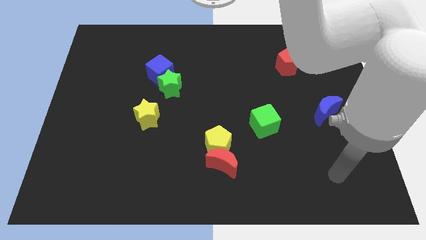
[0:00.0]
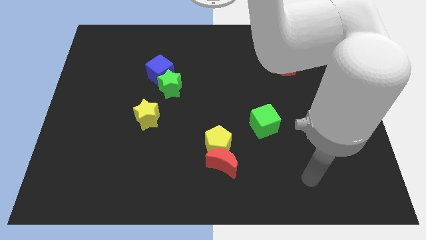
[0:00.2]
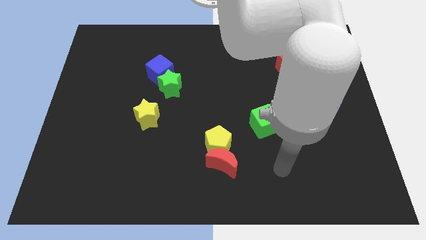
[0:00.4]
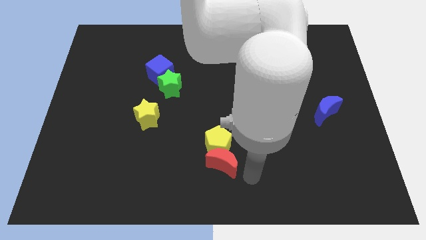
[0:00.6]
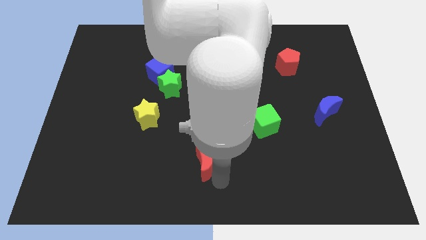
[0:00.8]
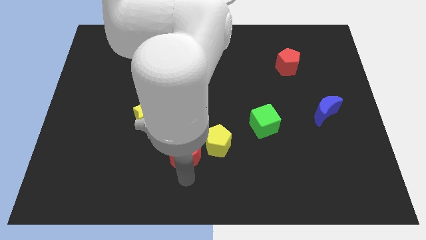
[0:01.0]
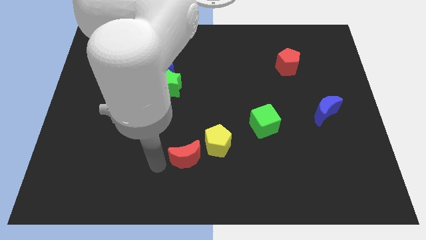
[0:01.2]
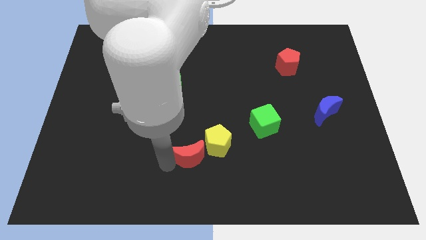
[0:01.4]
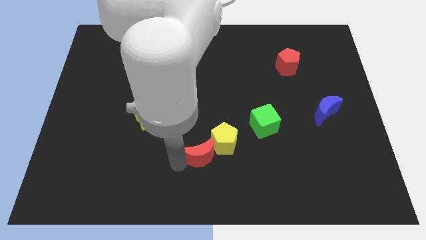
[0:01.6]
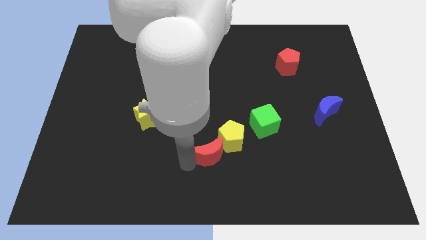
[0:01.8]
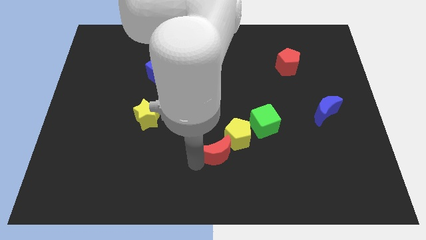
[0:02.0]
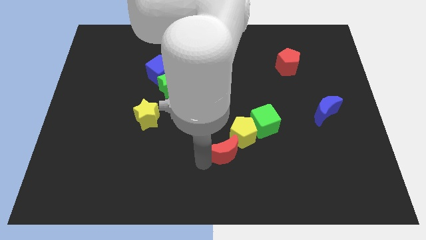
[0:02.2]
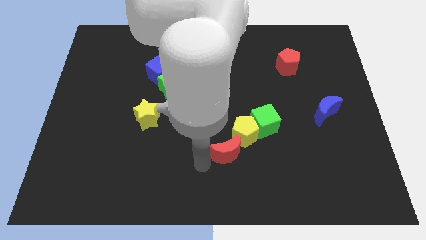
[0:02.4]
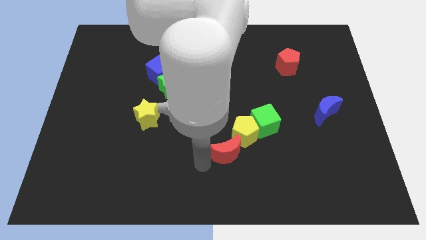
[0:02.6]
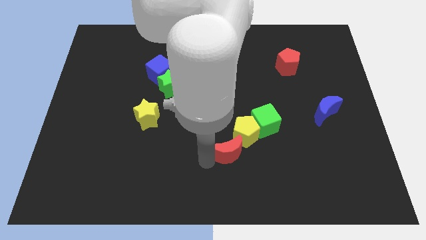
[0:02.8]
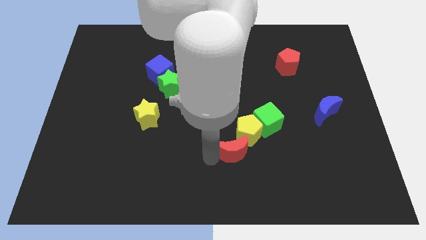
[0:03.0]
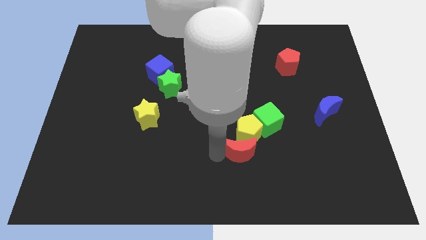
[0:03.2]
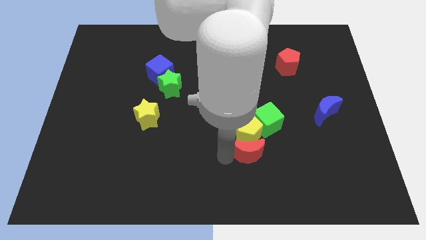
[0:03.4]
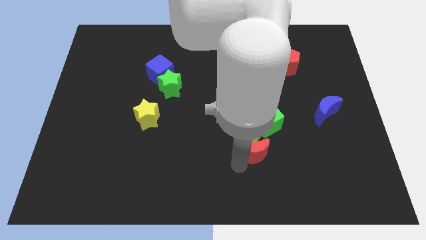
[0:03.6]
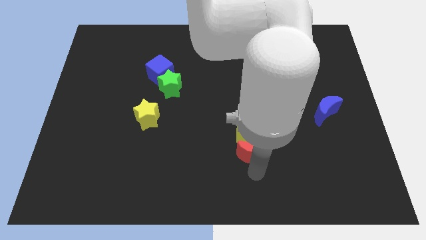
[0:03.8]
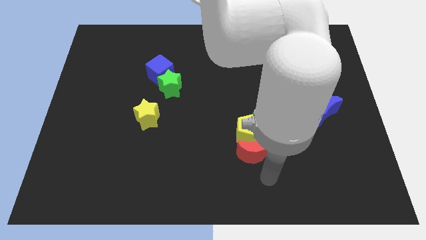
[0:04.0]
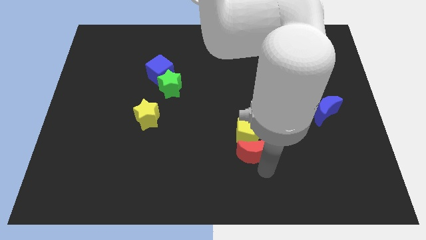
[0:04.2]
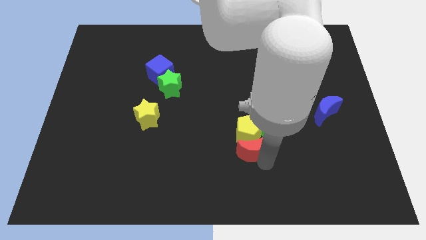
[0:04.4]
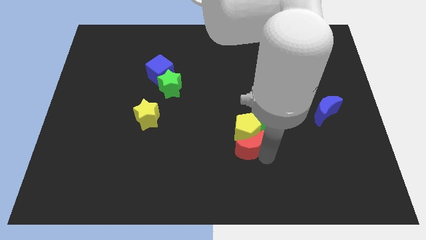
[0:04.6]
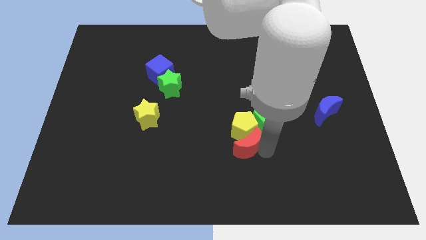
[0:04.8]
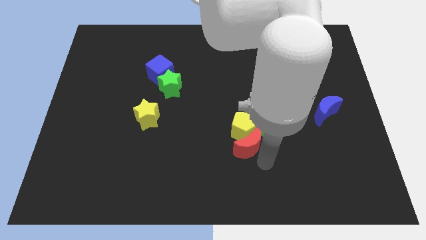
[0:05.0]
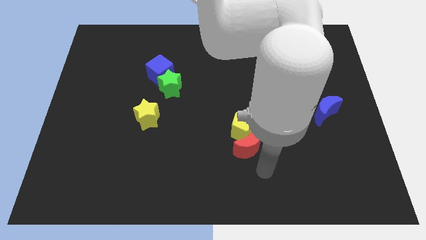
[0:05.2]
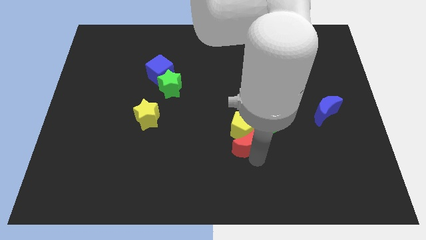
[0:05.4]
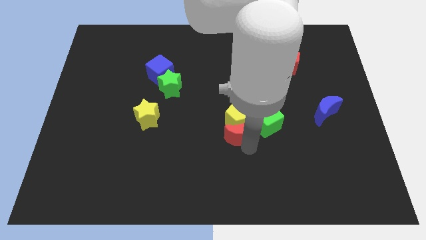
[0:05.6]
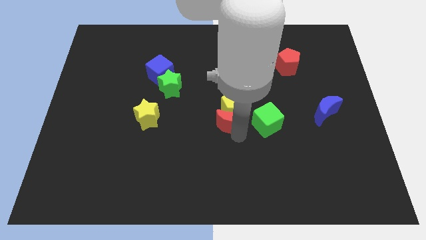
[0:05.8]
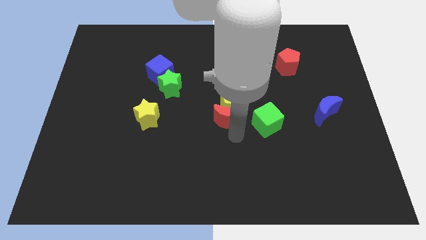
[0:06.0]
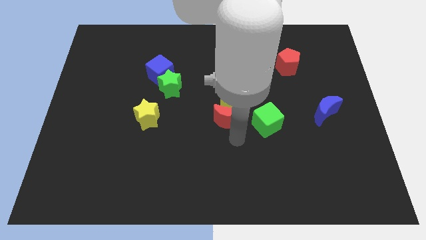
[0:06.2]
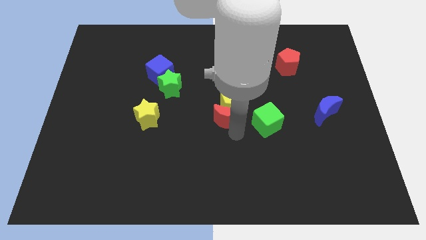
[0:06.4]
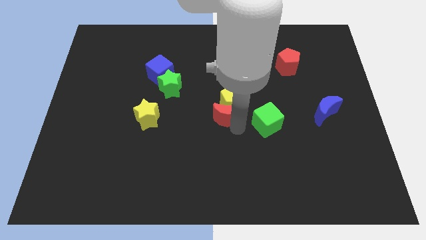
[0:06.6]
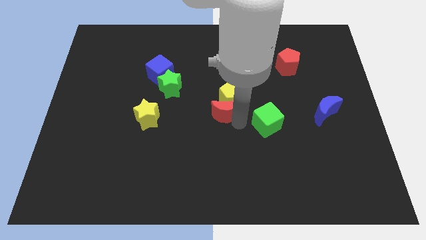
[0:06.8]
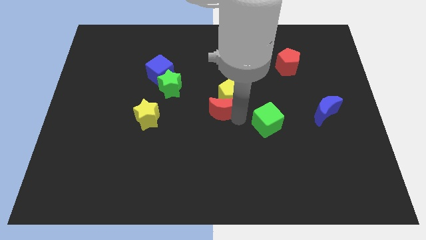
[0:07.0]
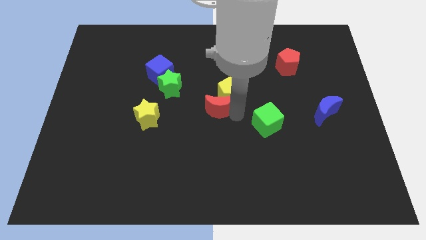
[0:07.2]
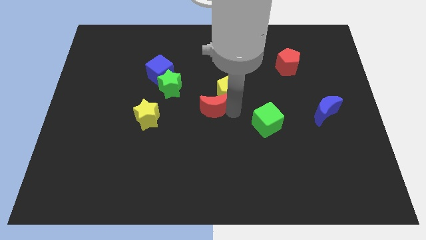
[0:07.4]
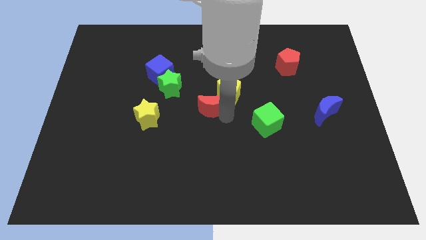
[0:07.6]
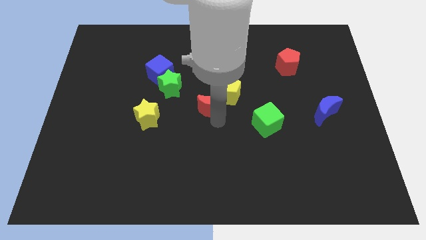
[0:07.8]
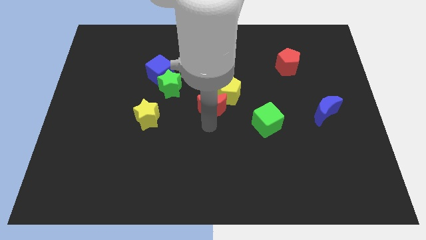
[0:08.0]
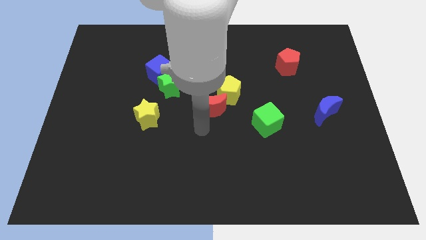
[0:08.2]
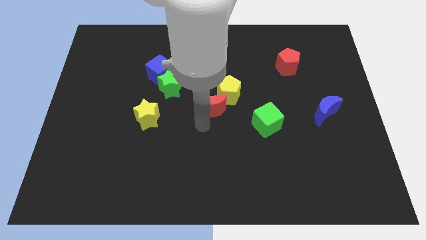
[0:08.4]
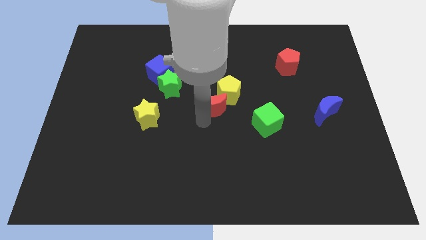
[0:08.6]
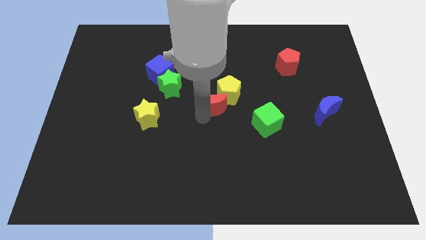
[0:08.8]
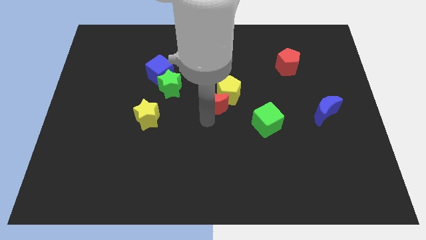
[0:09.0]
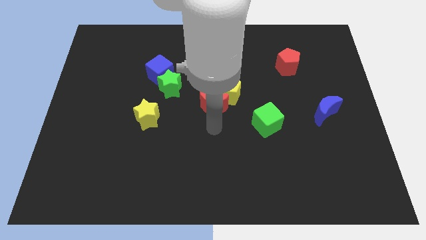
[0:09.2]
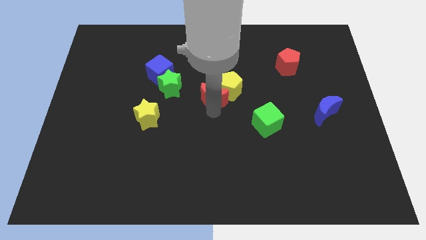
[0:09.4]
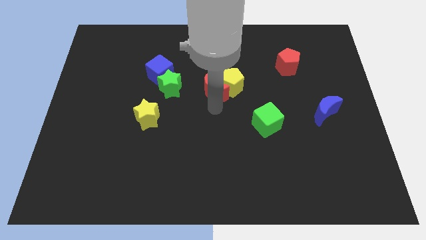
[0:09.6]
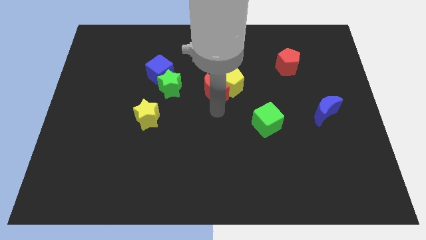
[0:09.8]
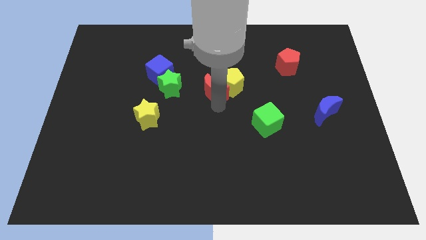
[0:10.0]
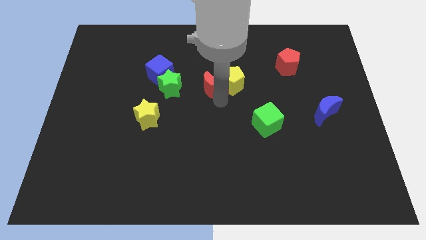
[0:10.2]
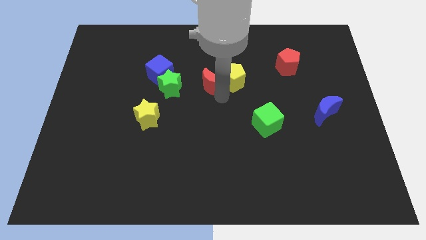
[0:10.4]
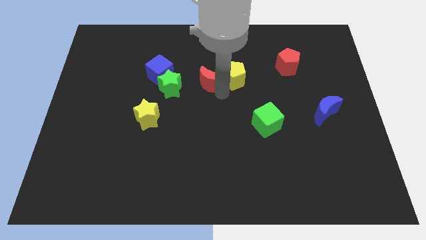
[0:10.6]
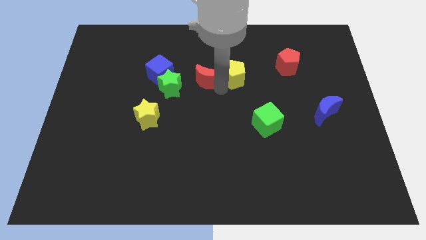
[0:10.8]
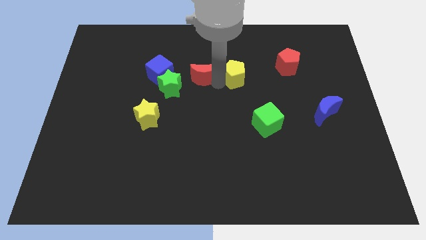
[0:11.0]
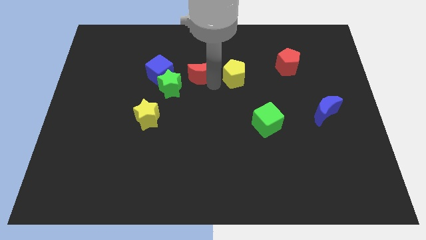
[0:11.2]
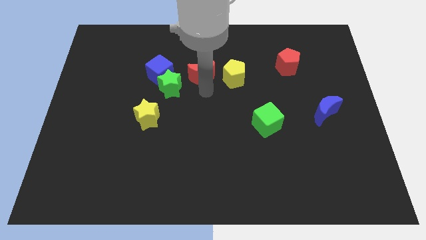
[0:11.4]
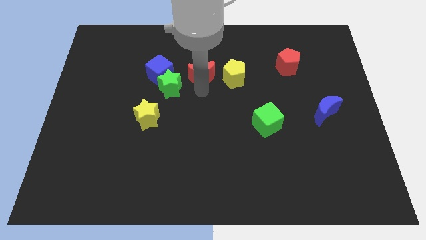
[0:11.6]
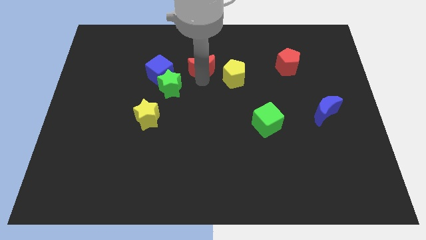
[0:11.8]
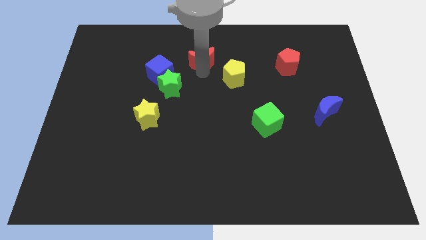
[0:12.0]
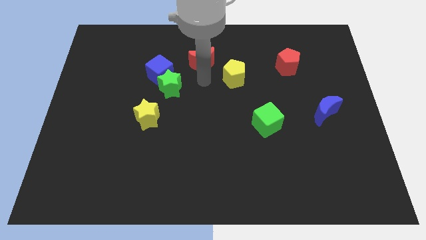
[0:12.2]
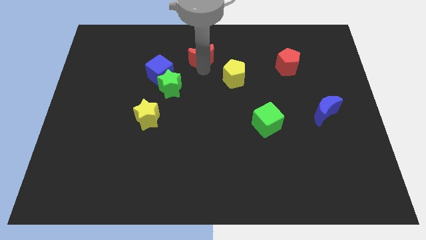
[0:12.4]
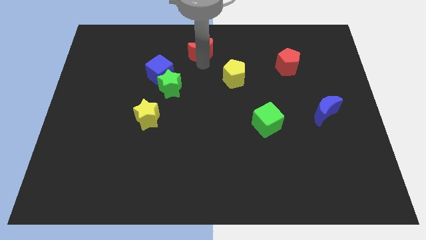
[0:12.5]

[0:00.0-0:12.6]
put the red moon to the top

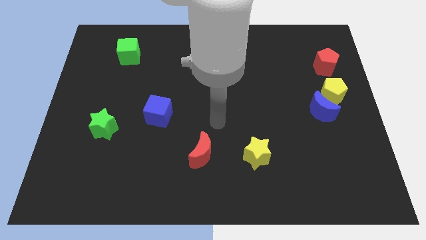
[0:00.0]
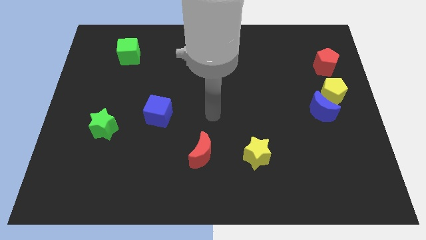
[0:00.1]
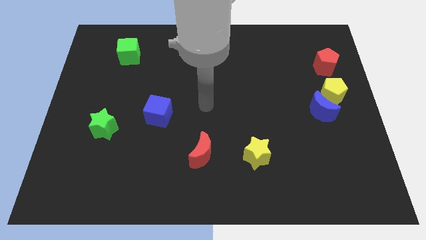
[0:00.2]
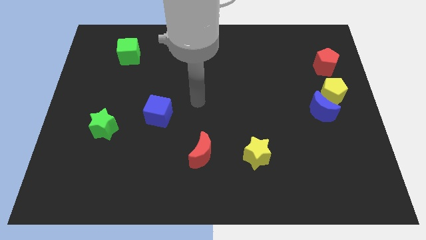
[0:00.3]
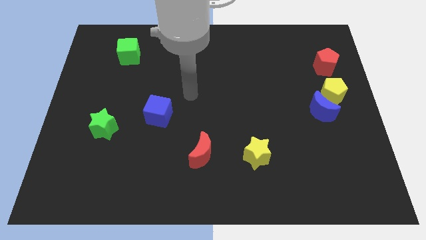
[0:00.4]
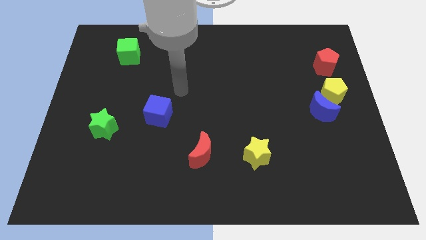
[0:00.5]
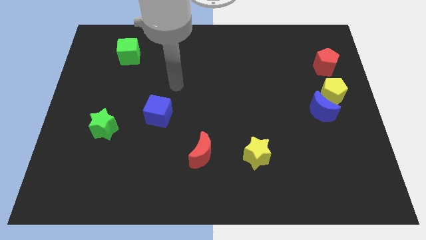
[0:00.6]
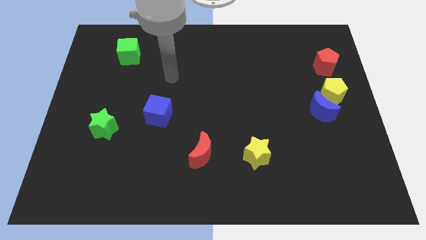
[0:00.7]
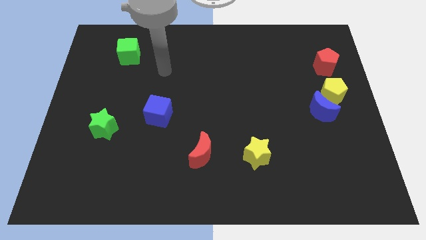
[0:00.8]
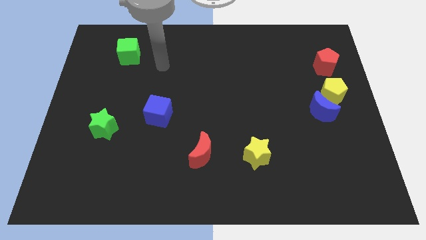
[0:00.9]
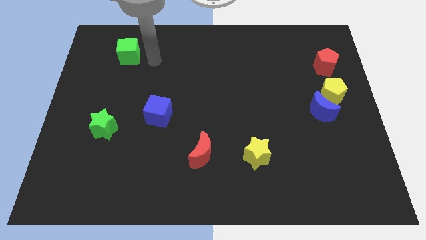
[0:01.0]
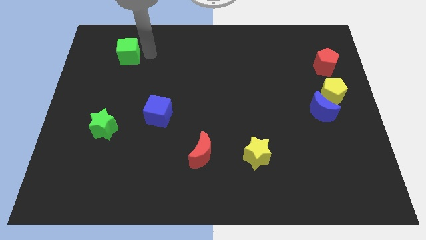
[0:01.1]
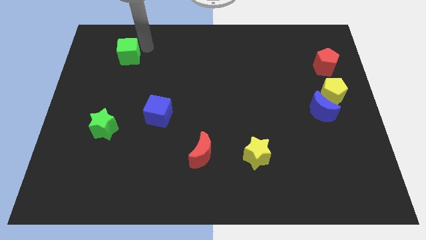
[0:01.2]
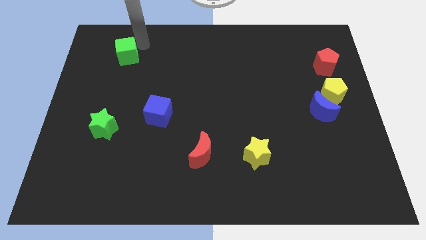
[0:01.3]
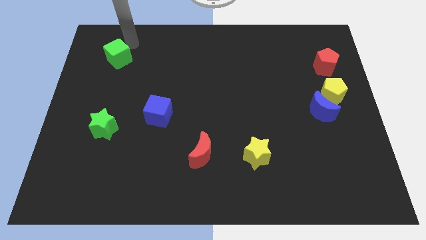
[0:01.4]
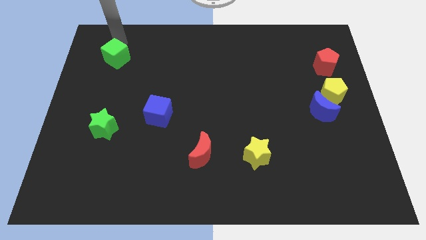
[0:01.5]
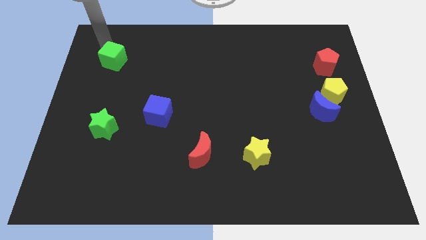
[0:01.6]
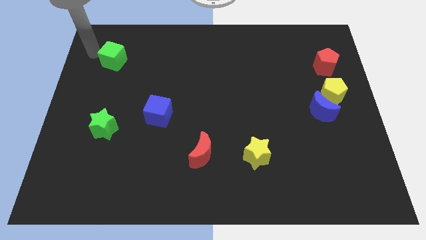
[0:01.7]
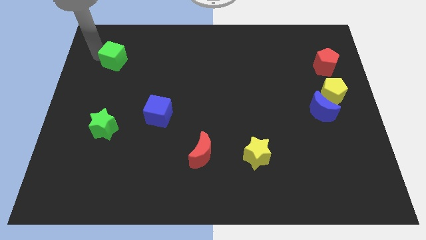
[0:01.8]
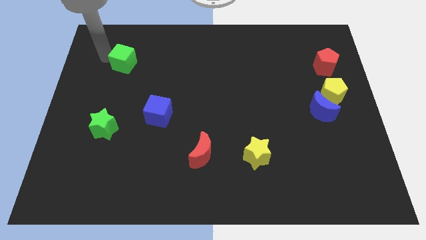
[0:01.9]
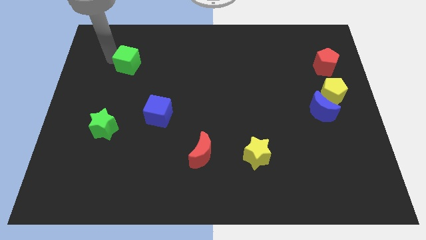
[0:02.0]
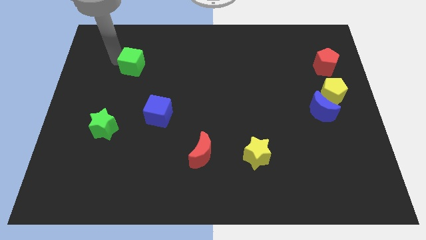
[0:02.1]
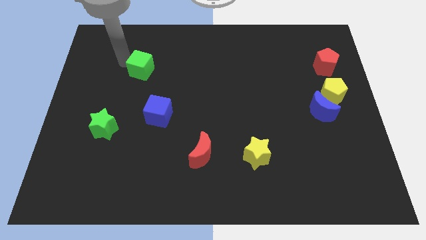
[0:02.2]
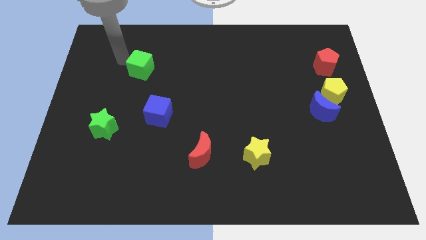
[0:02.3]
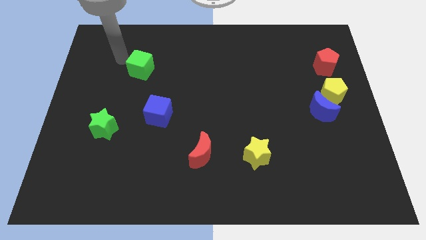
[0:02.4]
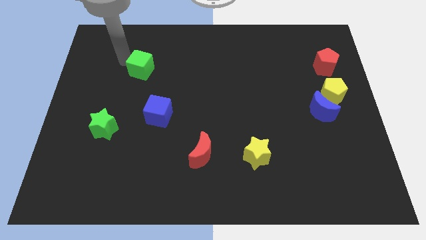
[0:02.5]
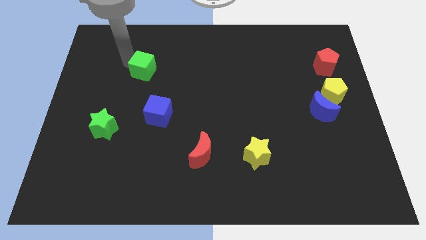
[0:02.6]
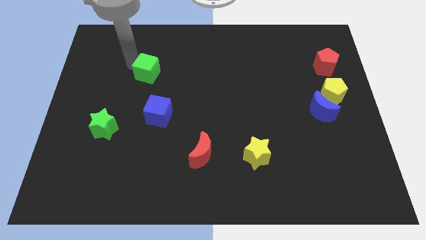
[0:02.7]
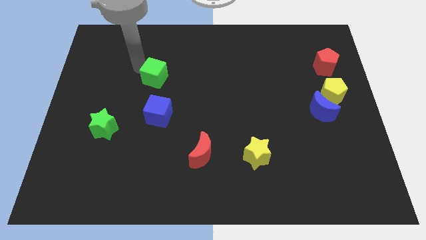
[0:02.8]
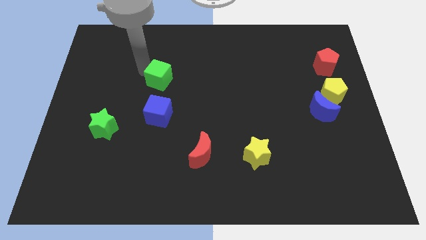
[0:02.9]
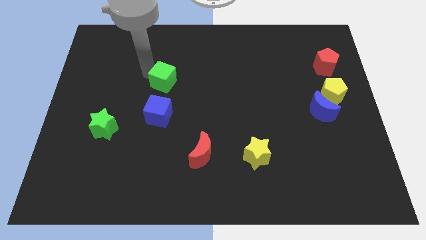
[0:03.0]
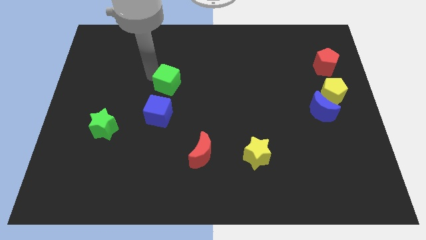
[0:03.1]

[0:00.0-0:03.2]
put the green cube to the center of the board
